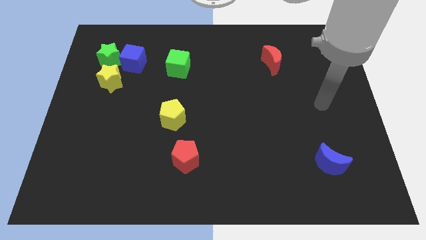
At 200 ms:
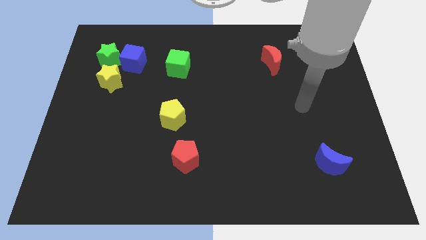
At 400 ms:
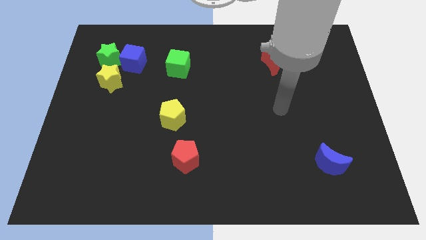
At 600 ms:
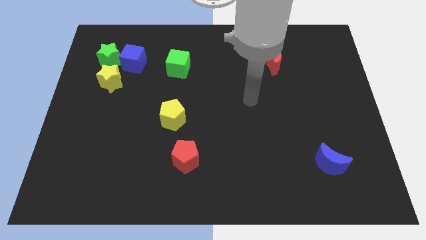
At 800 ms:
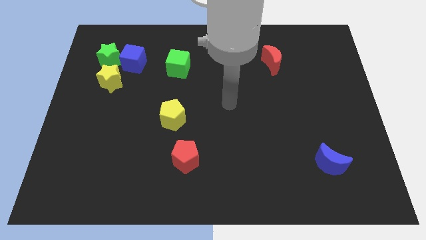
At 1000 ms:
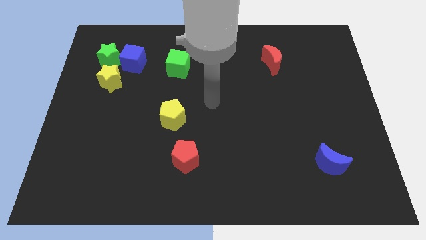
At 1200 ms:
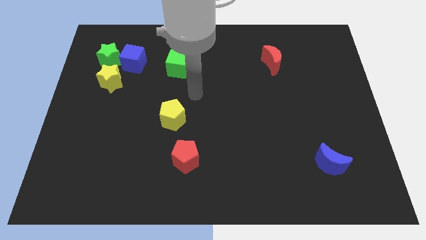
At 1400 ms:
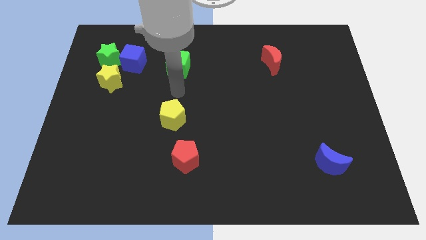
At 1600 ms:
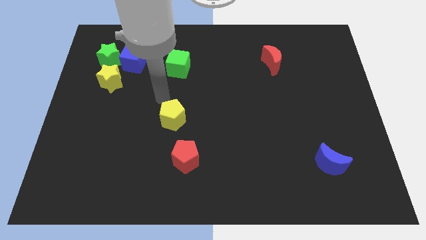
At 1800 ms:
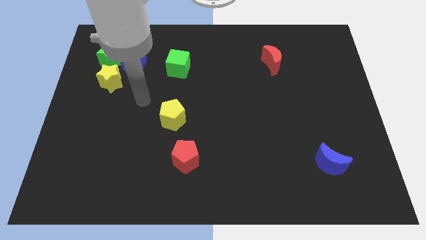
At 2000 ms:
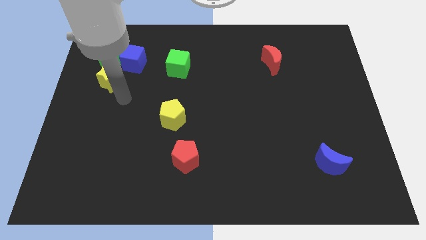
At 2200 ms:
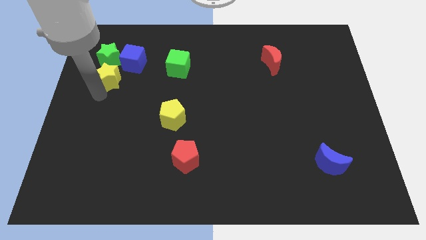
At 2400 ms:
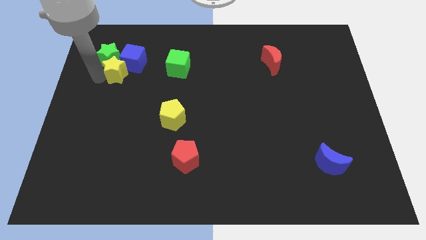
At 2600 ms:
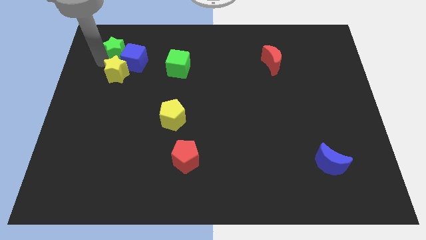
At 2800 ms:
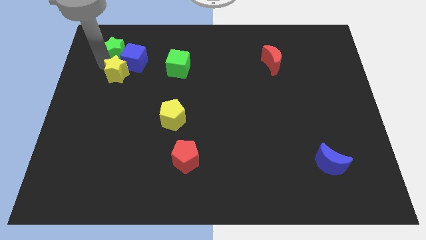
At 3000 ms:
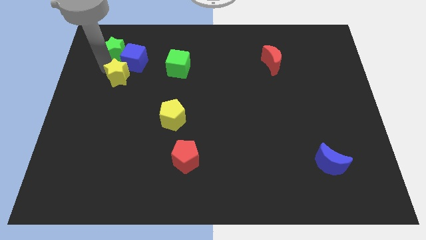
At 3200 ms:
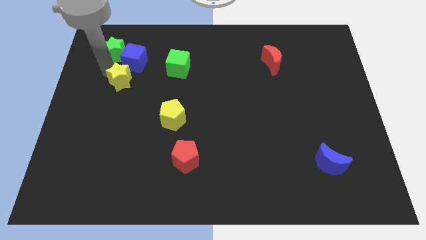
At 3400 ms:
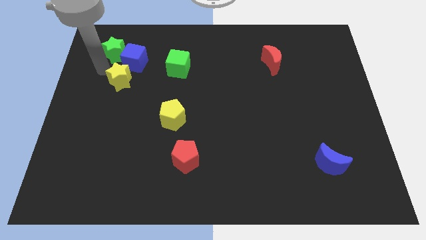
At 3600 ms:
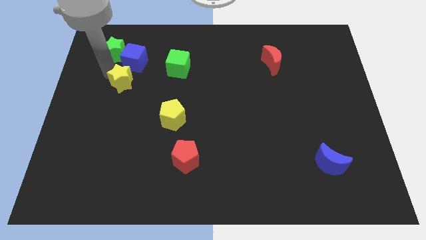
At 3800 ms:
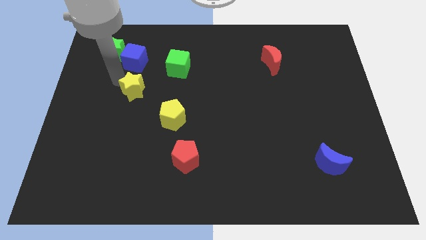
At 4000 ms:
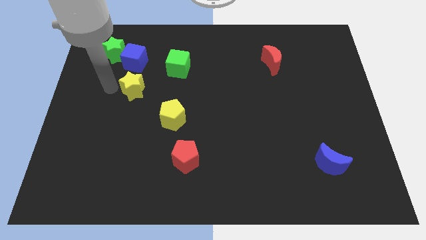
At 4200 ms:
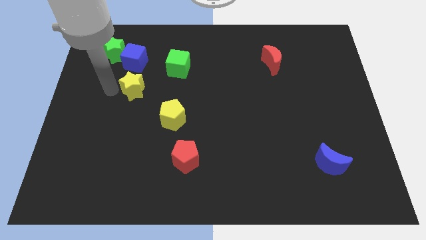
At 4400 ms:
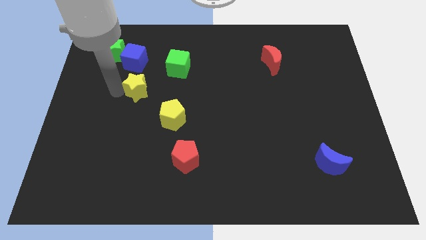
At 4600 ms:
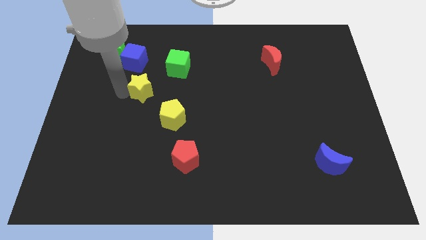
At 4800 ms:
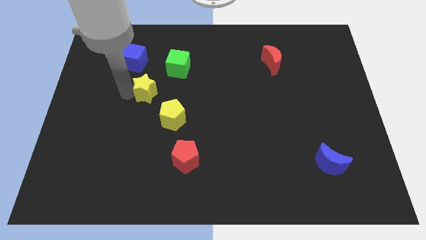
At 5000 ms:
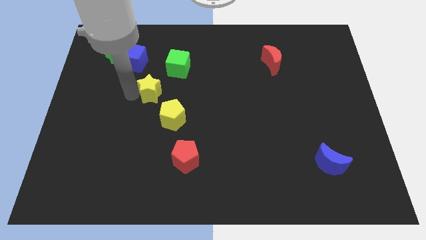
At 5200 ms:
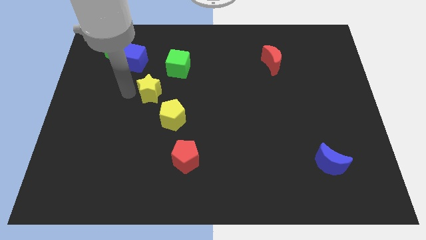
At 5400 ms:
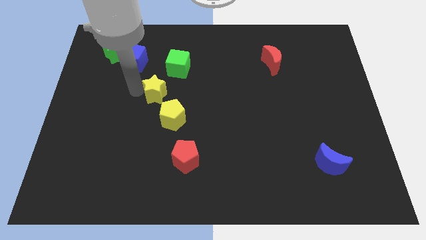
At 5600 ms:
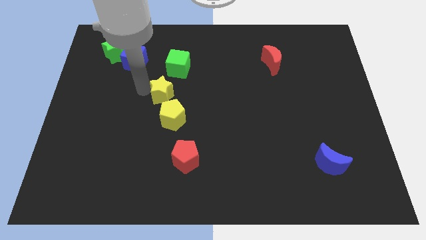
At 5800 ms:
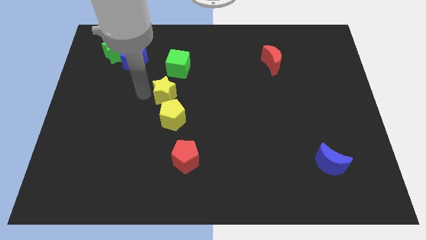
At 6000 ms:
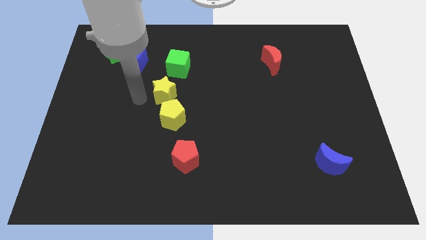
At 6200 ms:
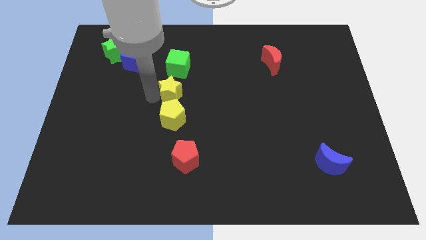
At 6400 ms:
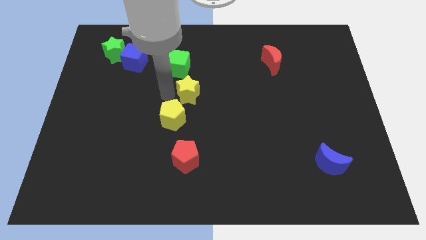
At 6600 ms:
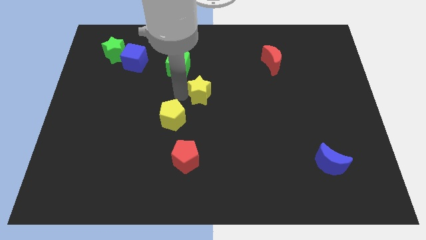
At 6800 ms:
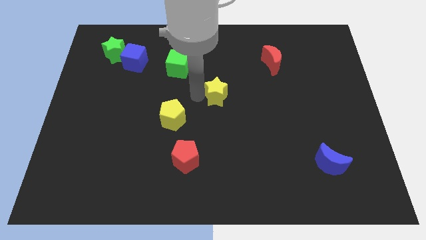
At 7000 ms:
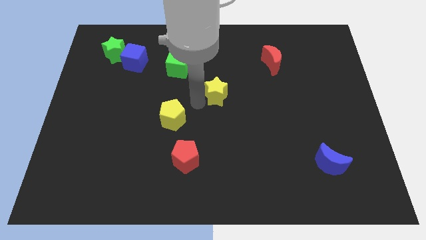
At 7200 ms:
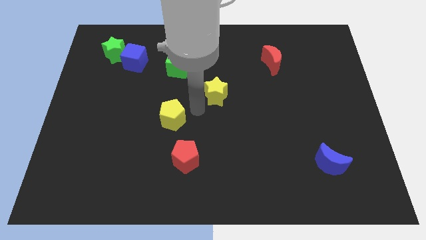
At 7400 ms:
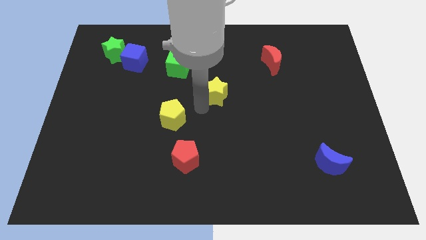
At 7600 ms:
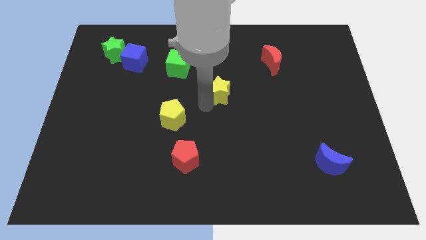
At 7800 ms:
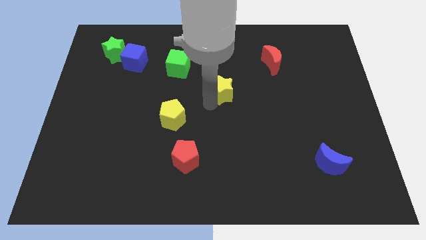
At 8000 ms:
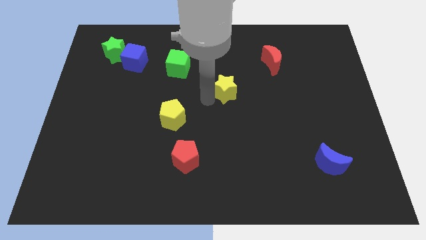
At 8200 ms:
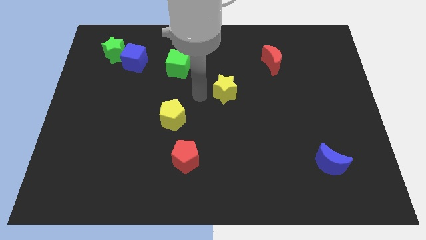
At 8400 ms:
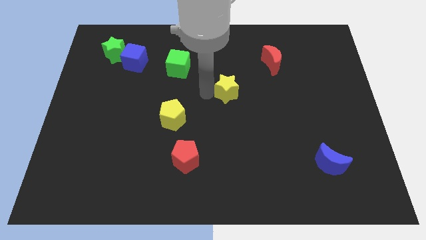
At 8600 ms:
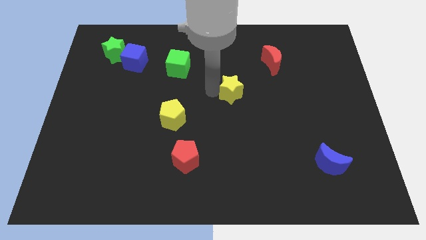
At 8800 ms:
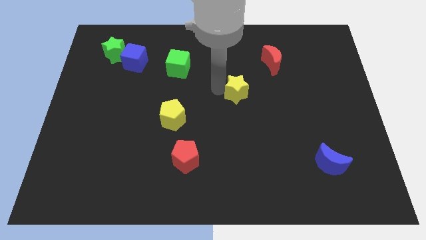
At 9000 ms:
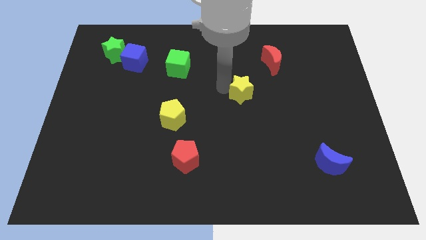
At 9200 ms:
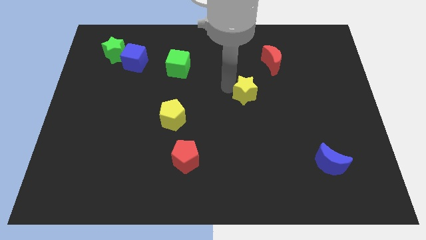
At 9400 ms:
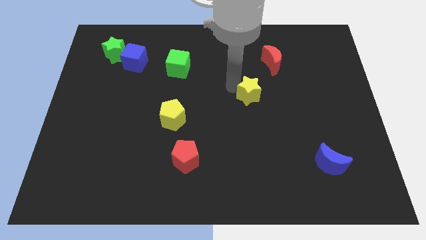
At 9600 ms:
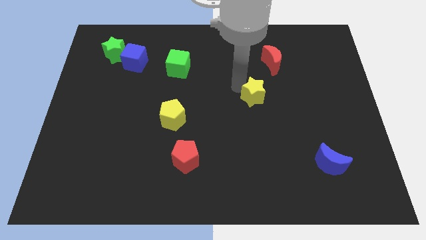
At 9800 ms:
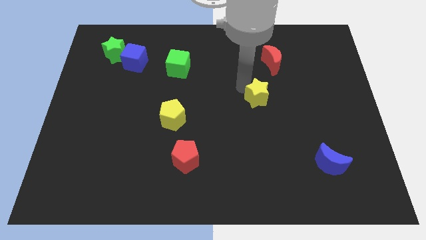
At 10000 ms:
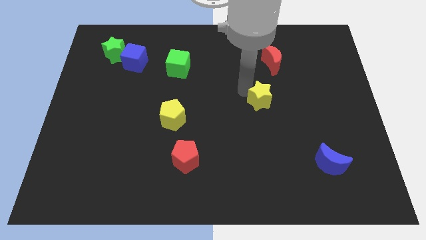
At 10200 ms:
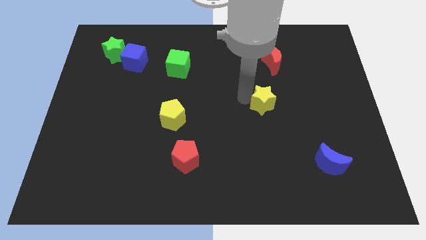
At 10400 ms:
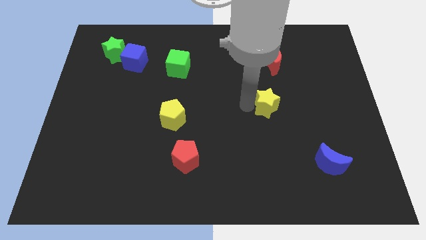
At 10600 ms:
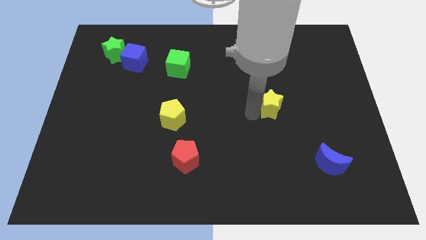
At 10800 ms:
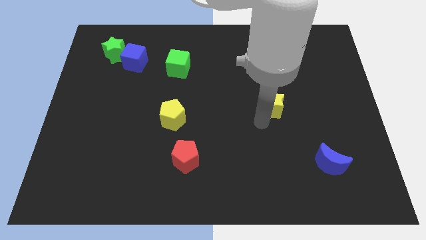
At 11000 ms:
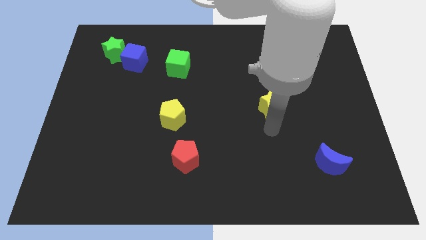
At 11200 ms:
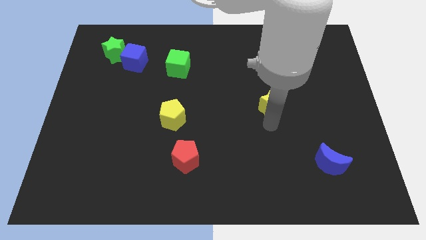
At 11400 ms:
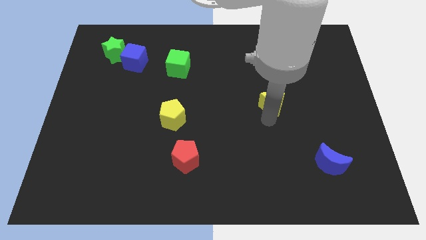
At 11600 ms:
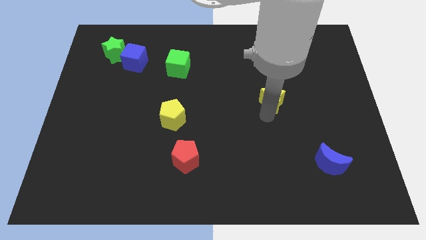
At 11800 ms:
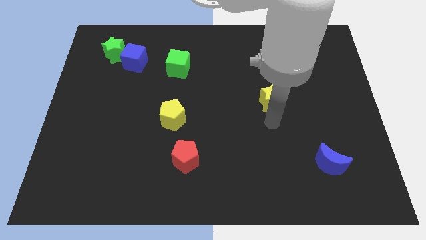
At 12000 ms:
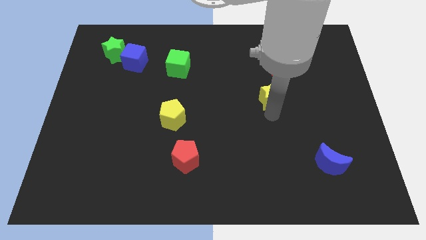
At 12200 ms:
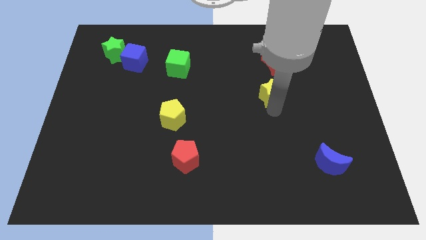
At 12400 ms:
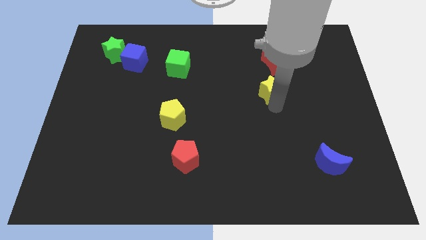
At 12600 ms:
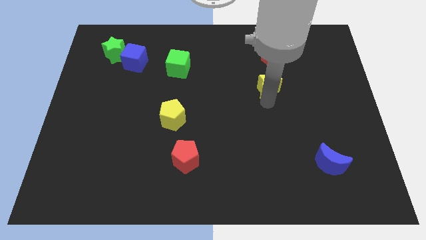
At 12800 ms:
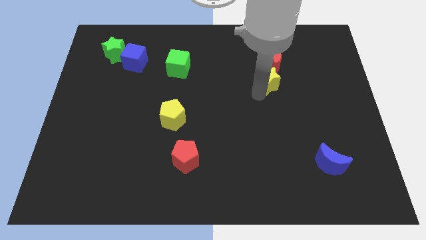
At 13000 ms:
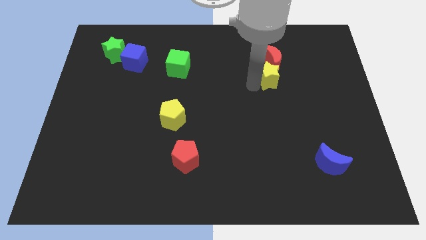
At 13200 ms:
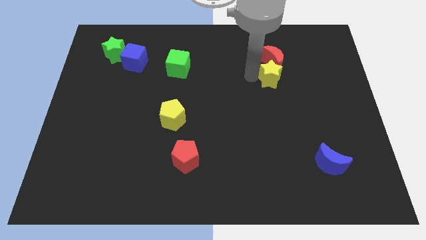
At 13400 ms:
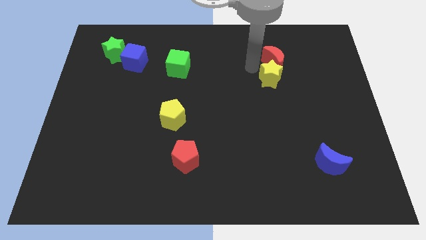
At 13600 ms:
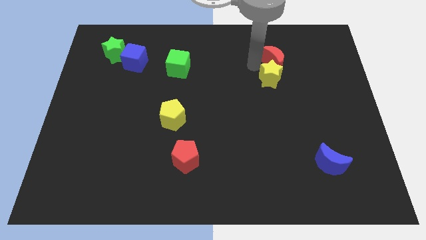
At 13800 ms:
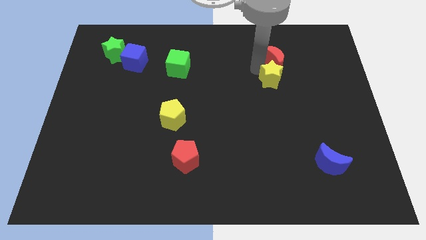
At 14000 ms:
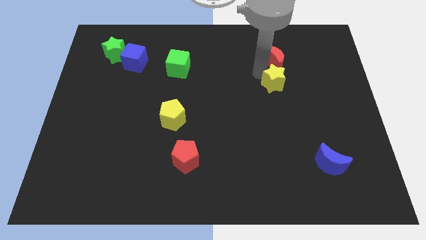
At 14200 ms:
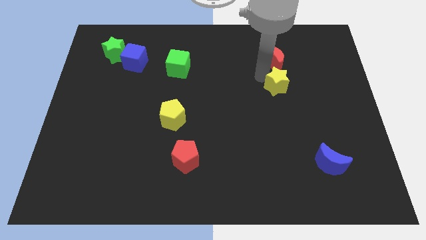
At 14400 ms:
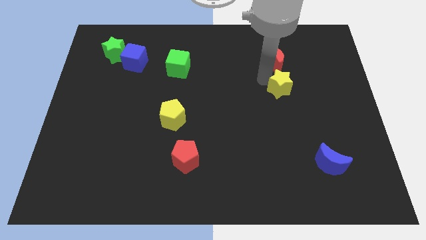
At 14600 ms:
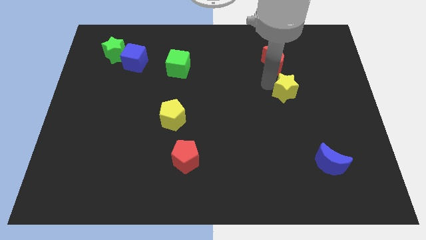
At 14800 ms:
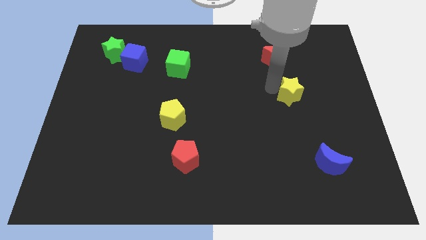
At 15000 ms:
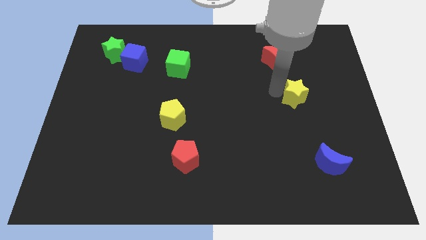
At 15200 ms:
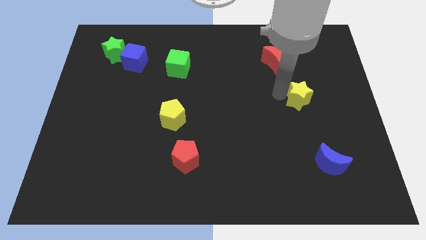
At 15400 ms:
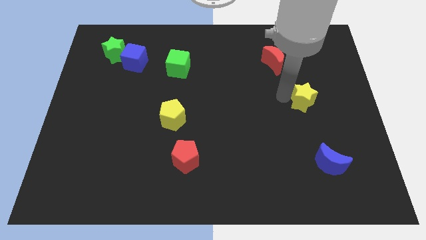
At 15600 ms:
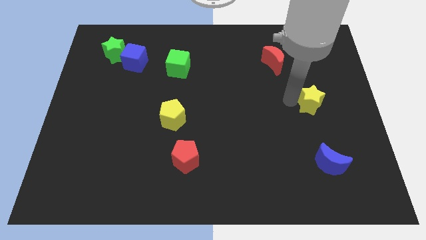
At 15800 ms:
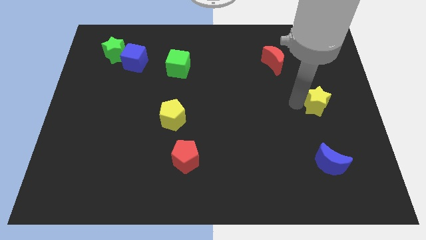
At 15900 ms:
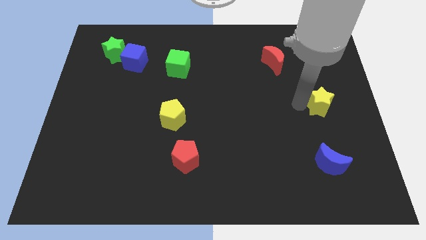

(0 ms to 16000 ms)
move the yellow star to the right side
